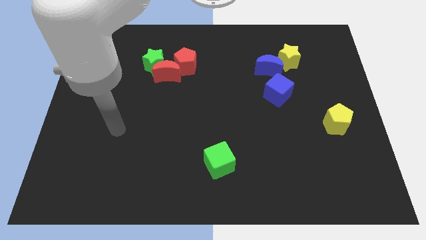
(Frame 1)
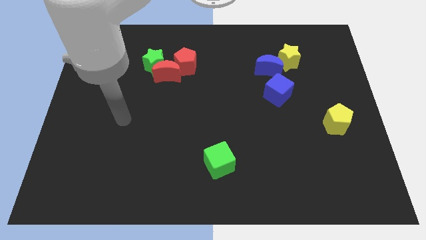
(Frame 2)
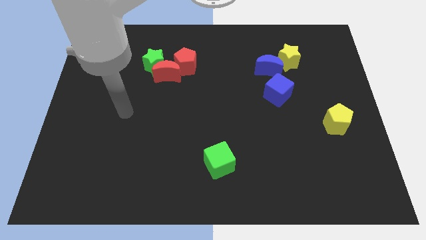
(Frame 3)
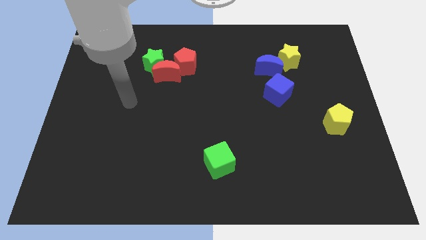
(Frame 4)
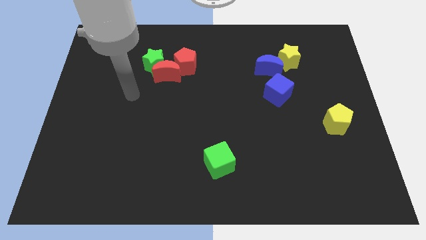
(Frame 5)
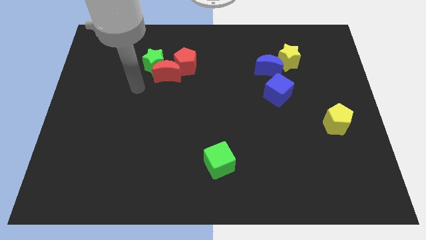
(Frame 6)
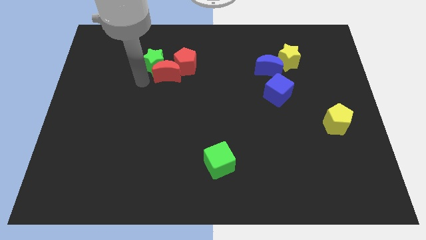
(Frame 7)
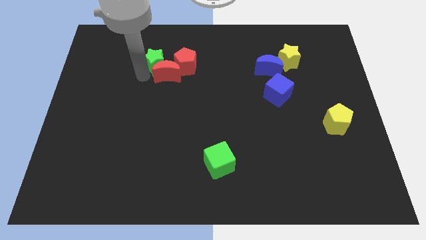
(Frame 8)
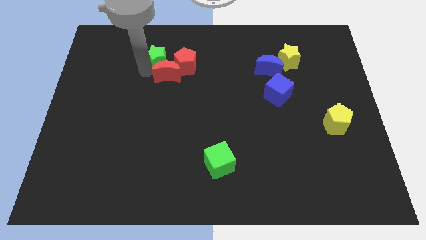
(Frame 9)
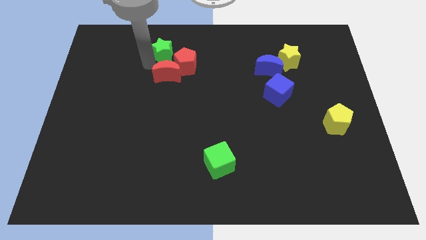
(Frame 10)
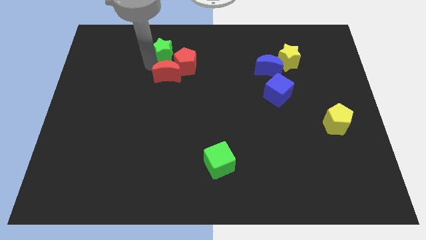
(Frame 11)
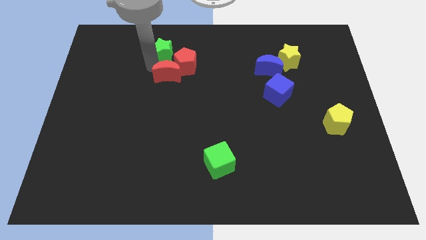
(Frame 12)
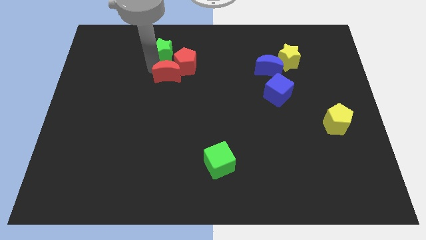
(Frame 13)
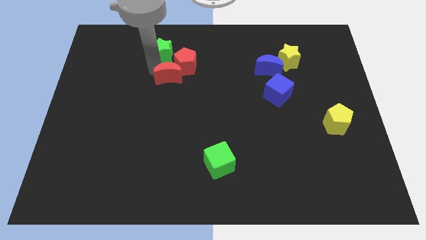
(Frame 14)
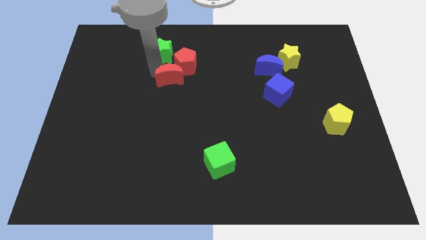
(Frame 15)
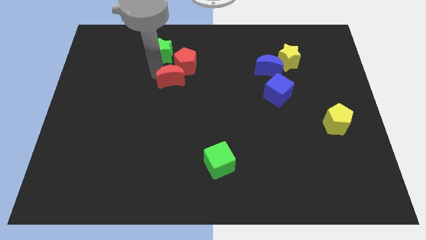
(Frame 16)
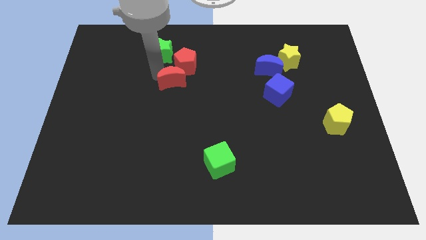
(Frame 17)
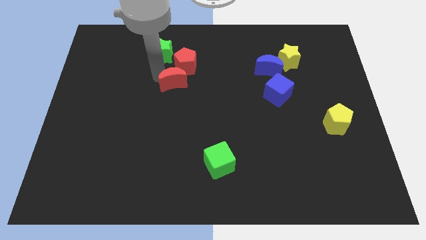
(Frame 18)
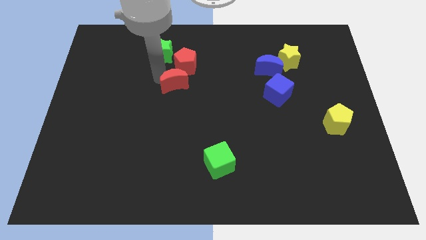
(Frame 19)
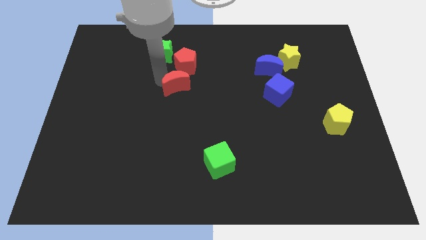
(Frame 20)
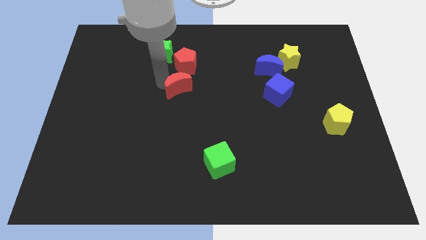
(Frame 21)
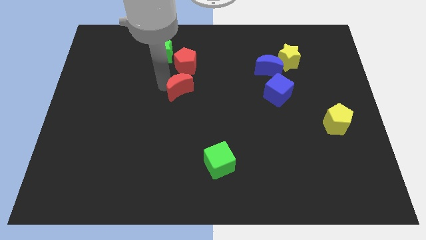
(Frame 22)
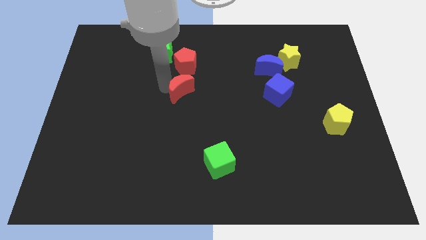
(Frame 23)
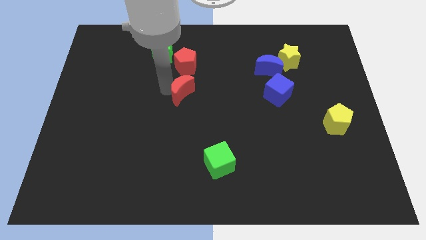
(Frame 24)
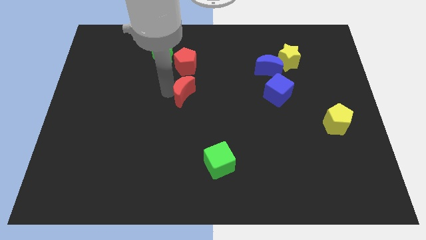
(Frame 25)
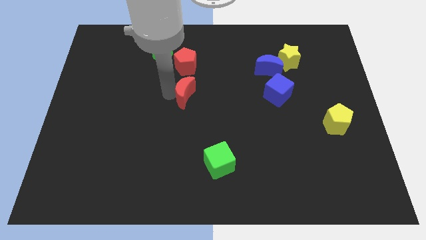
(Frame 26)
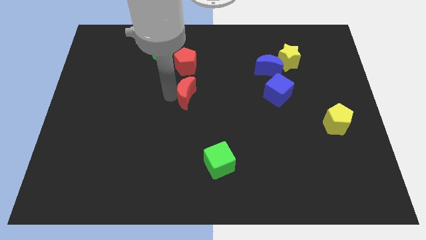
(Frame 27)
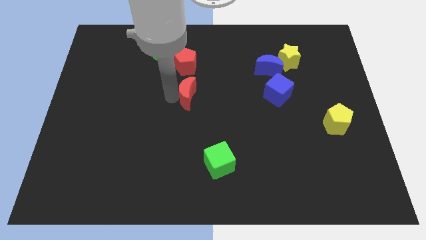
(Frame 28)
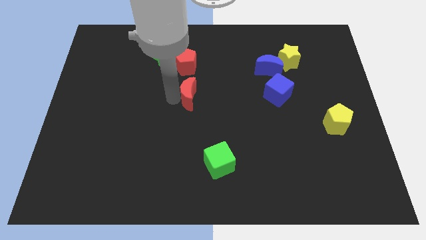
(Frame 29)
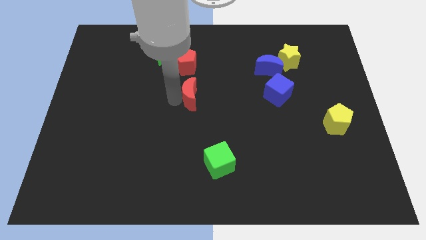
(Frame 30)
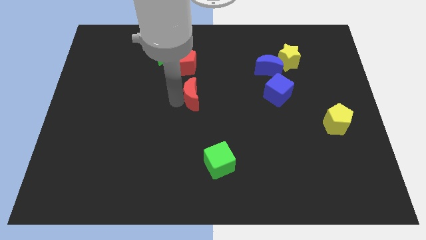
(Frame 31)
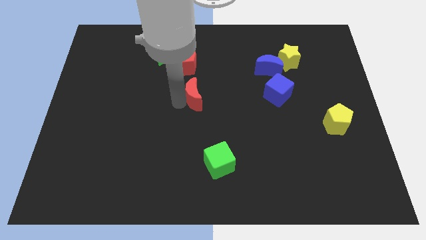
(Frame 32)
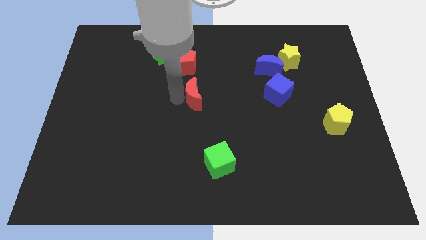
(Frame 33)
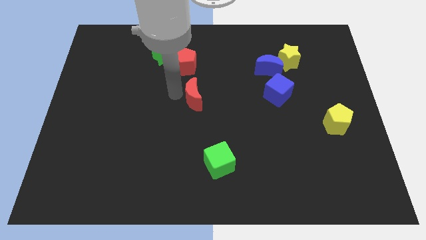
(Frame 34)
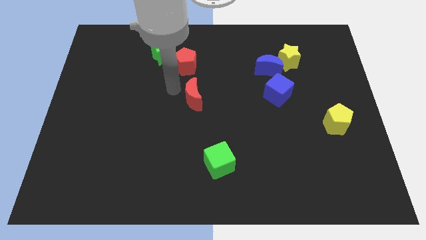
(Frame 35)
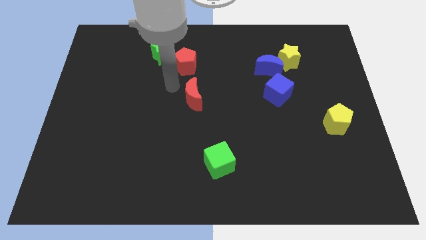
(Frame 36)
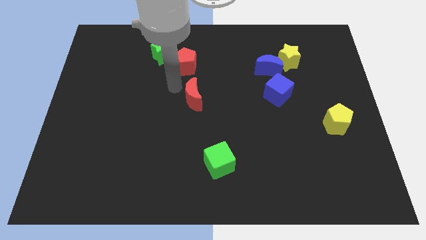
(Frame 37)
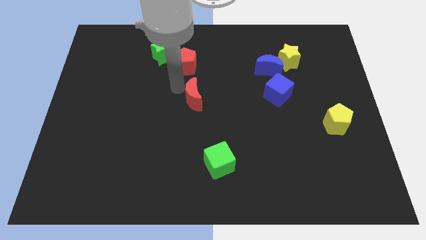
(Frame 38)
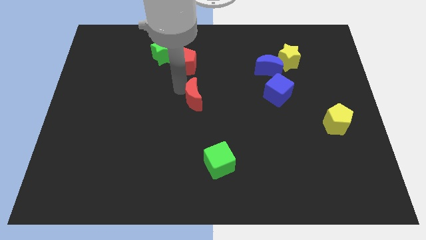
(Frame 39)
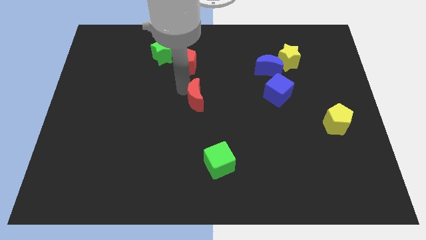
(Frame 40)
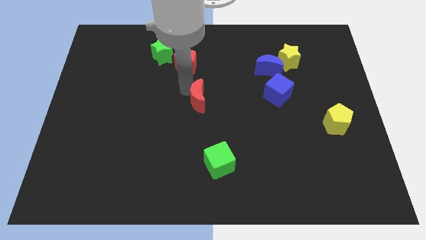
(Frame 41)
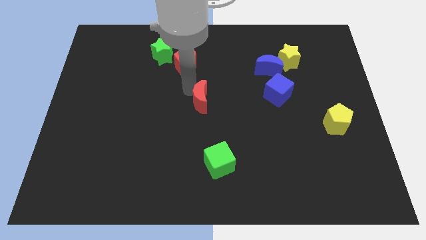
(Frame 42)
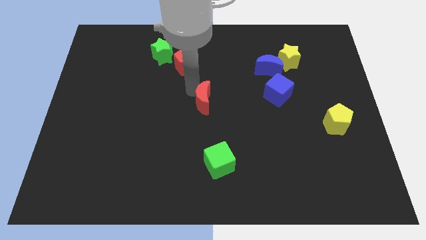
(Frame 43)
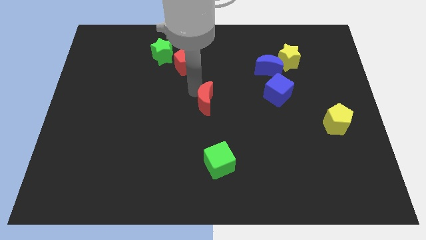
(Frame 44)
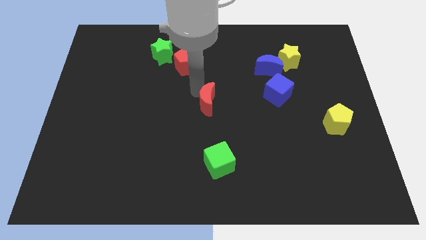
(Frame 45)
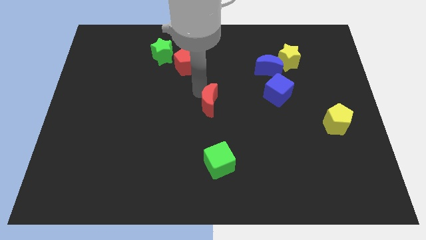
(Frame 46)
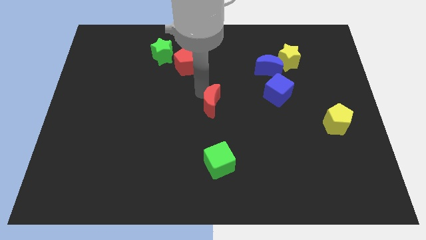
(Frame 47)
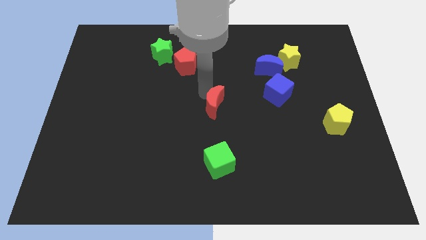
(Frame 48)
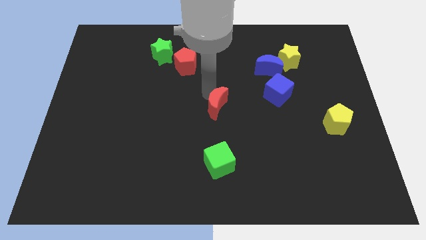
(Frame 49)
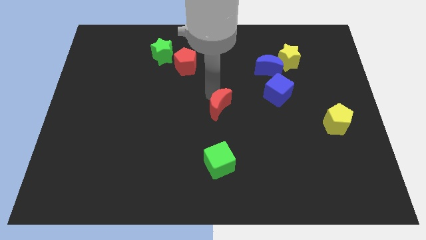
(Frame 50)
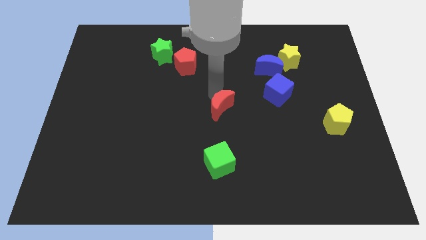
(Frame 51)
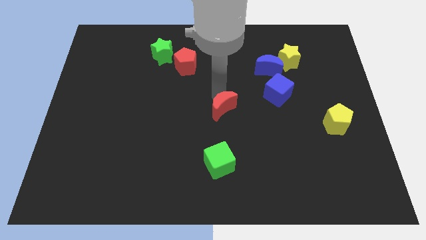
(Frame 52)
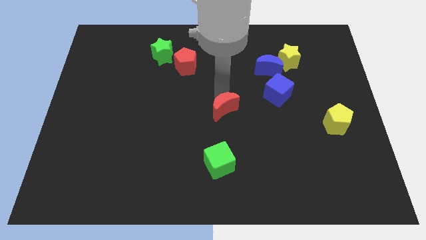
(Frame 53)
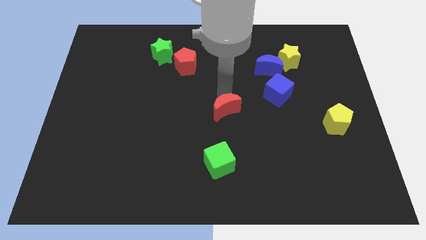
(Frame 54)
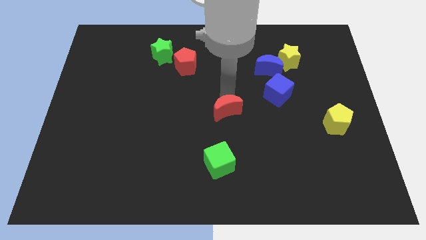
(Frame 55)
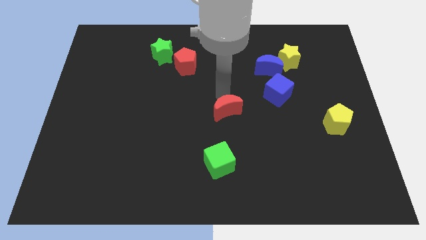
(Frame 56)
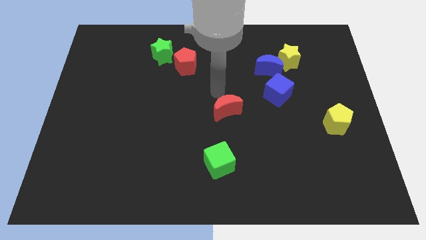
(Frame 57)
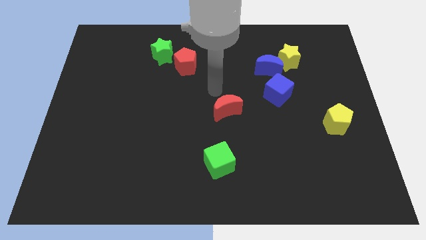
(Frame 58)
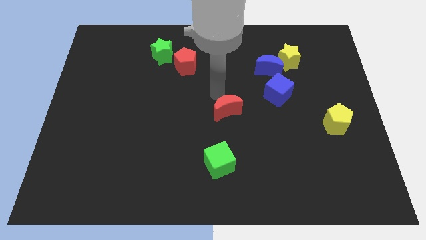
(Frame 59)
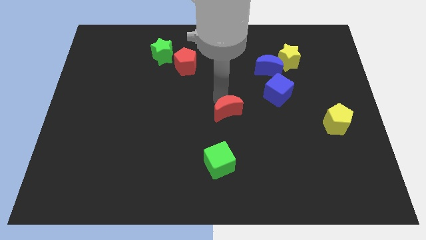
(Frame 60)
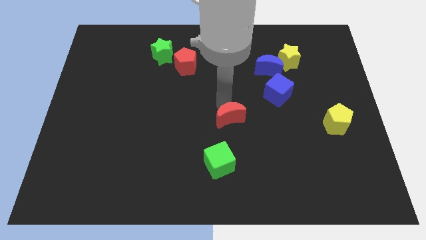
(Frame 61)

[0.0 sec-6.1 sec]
move the red moon down and to the right diagonally

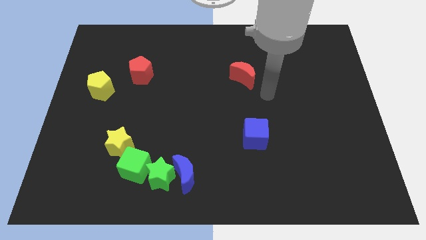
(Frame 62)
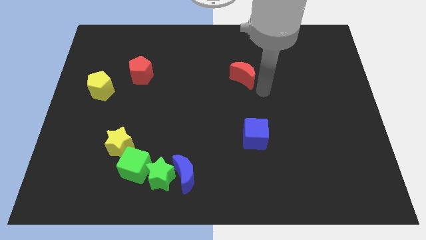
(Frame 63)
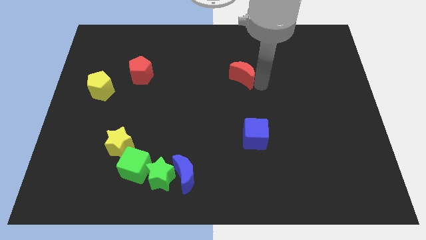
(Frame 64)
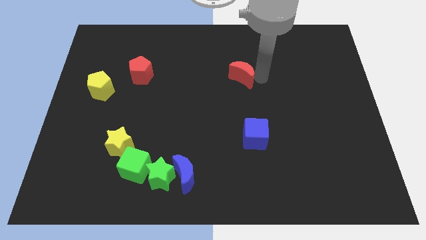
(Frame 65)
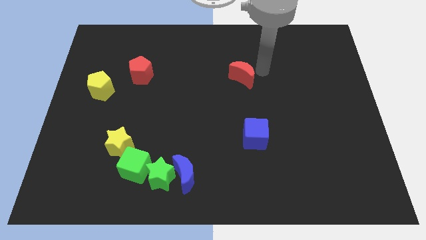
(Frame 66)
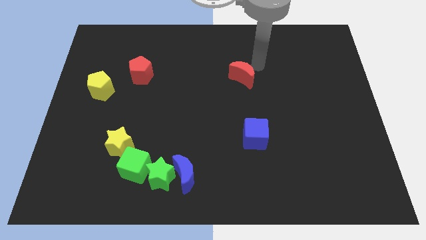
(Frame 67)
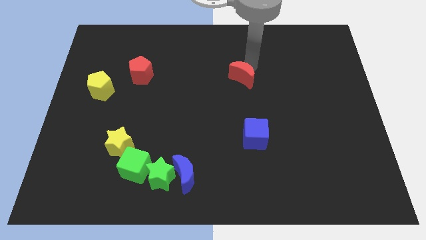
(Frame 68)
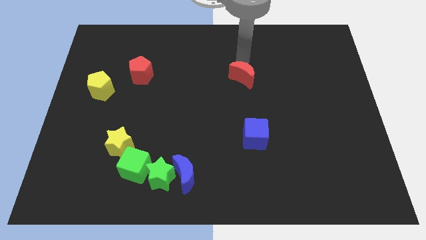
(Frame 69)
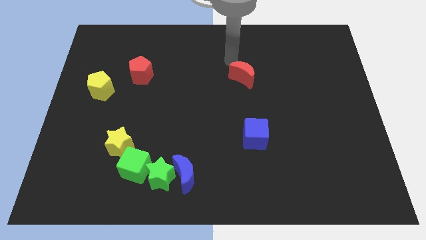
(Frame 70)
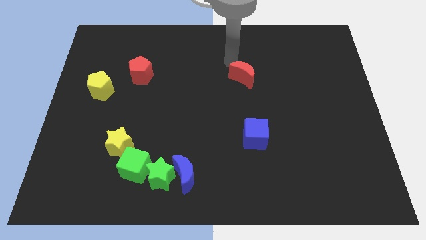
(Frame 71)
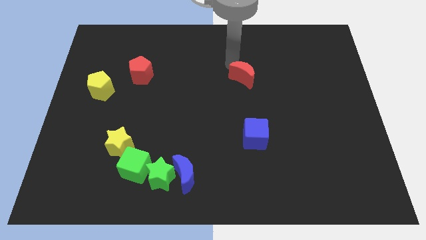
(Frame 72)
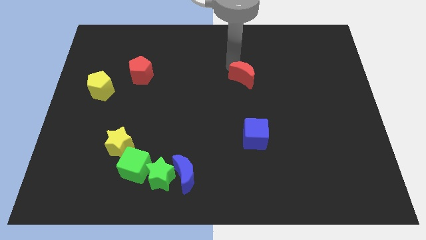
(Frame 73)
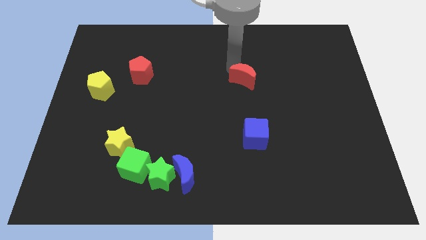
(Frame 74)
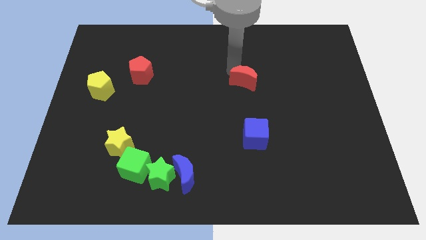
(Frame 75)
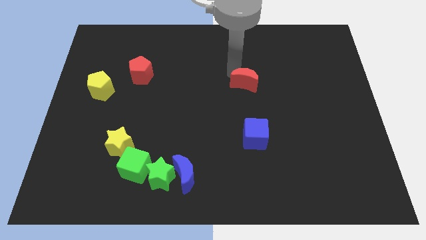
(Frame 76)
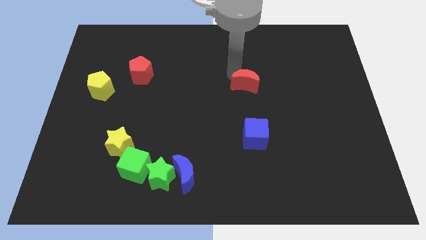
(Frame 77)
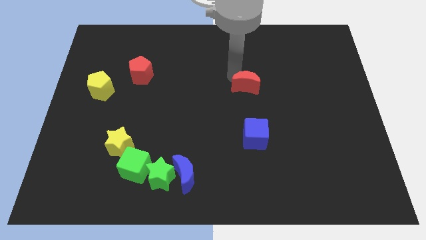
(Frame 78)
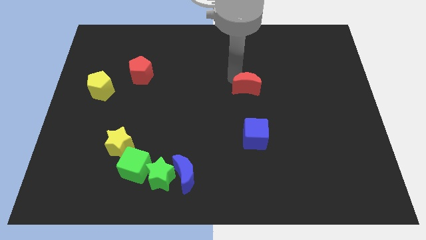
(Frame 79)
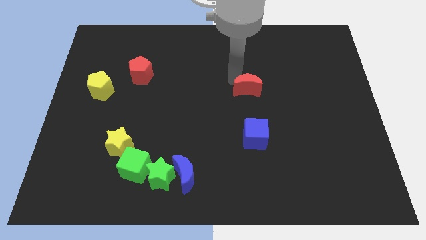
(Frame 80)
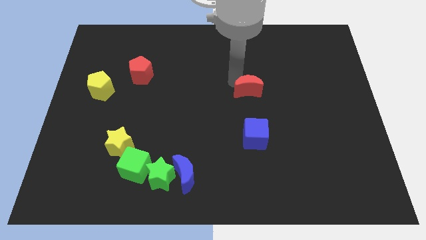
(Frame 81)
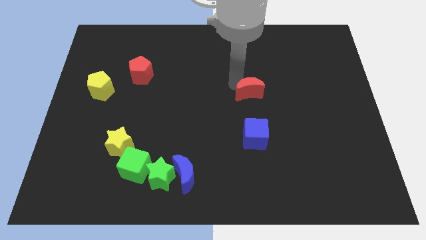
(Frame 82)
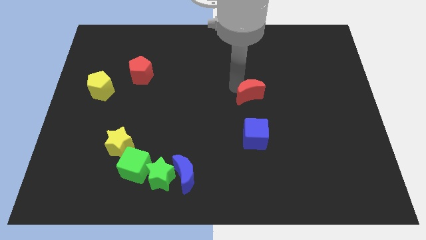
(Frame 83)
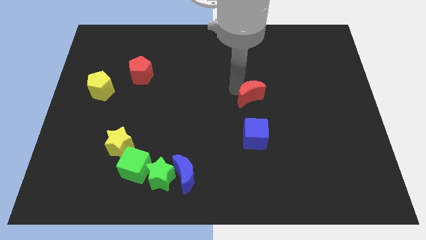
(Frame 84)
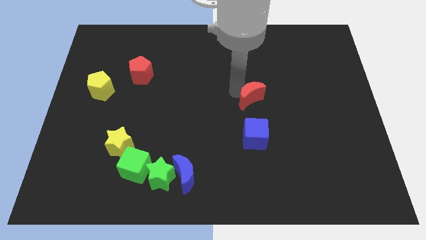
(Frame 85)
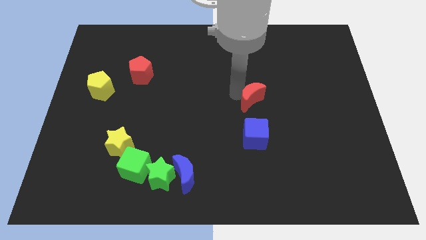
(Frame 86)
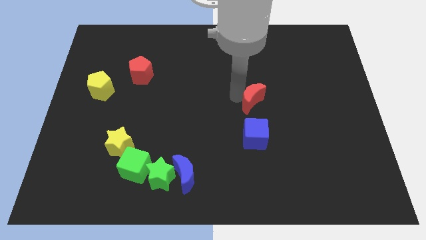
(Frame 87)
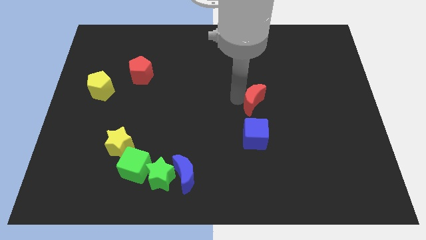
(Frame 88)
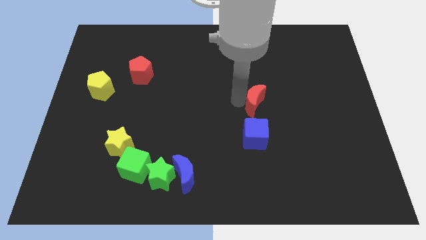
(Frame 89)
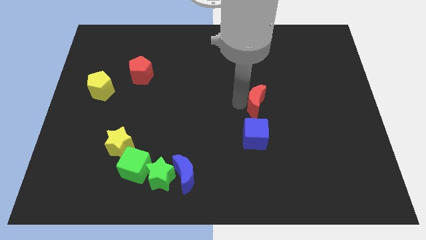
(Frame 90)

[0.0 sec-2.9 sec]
slide the red moon down and to the right a little bit
